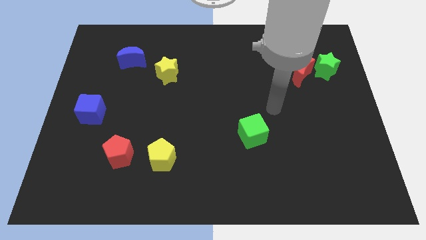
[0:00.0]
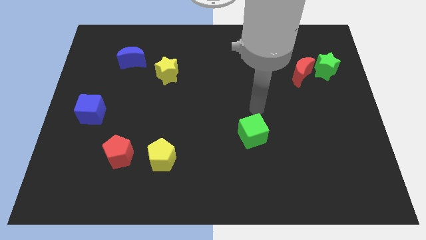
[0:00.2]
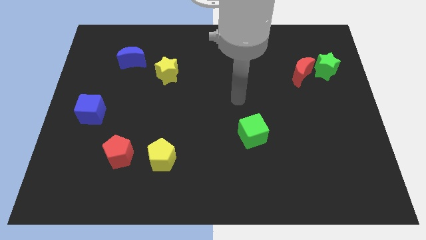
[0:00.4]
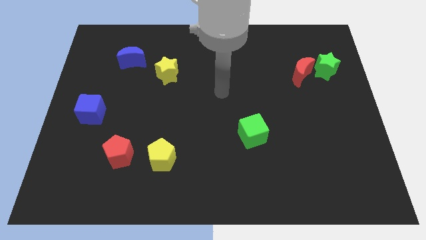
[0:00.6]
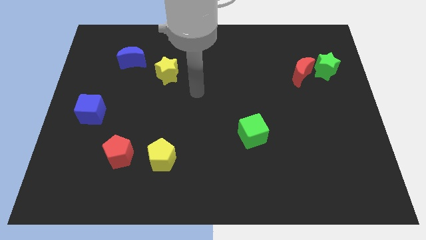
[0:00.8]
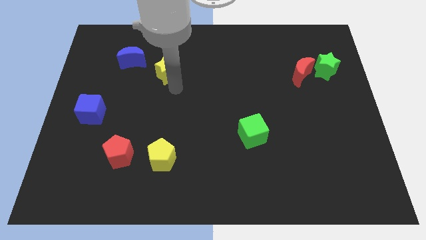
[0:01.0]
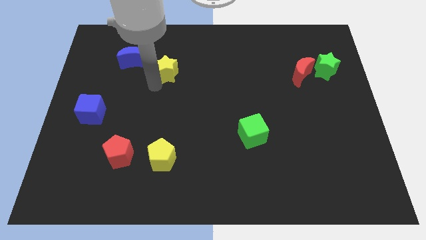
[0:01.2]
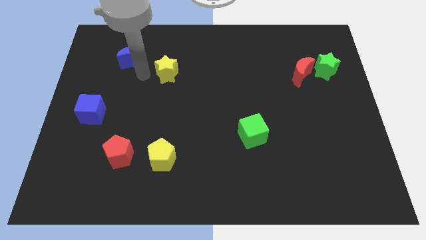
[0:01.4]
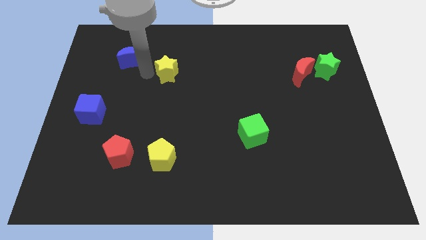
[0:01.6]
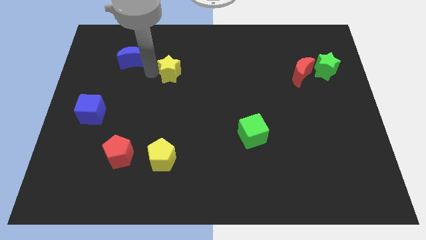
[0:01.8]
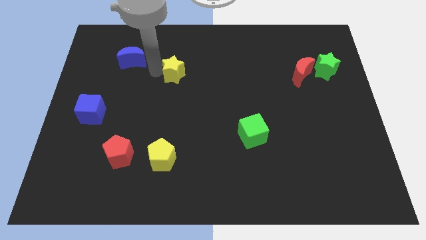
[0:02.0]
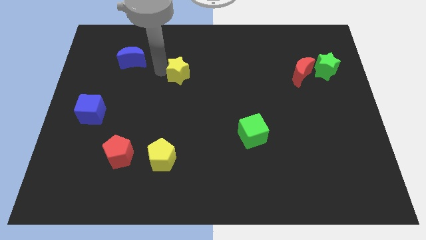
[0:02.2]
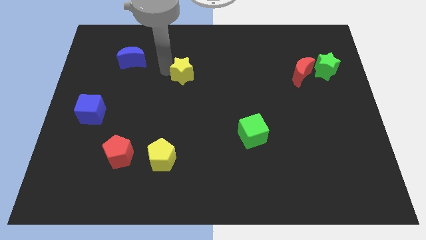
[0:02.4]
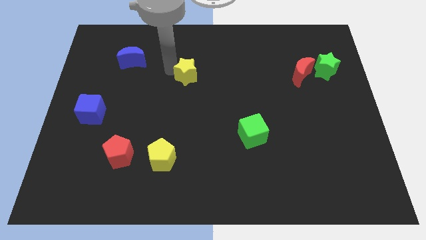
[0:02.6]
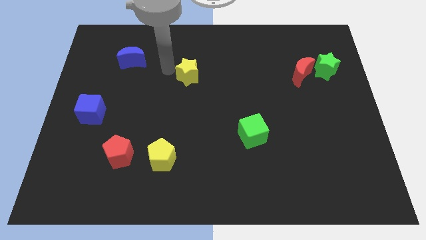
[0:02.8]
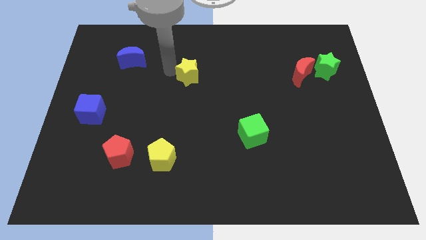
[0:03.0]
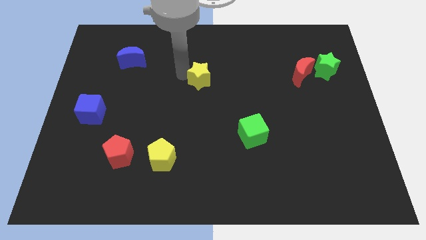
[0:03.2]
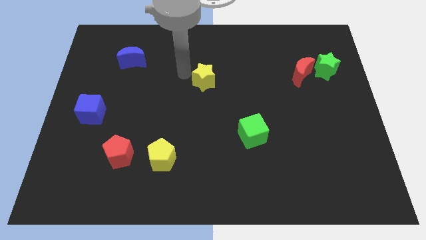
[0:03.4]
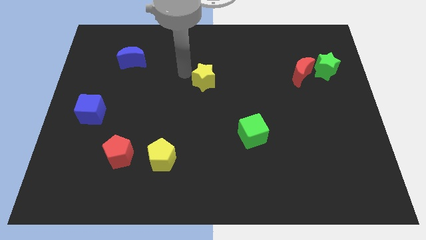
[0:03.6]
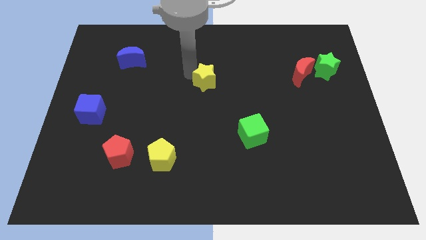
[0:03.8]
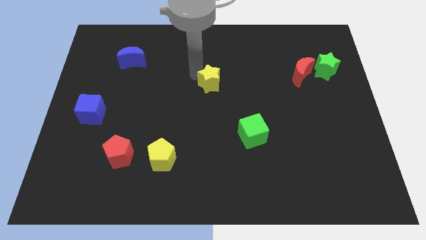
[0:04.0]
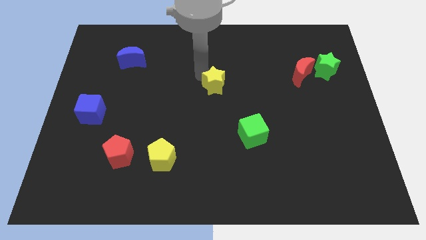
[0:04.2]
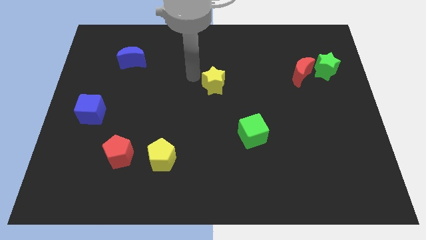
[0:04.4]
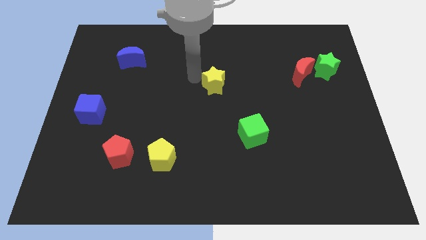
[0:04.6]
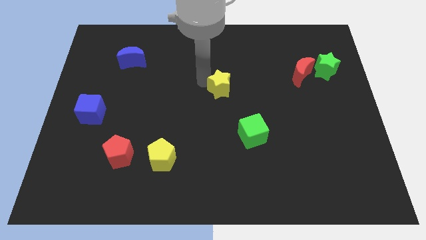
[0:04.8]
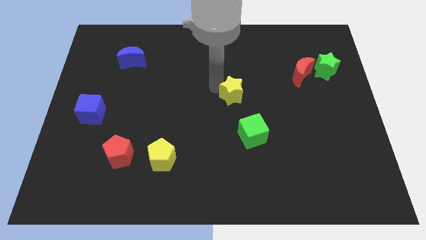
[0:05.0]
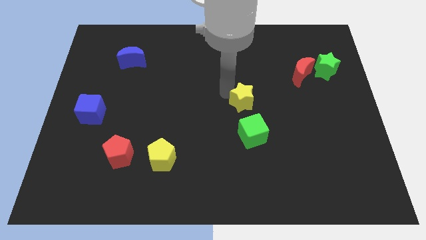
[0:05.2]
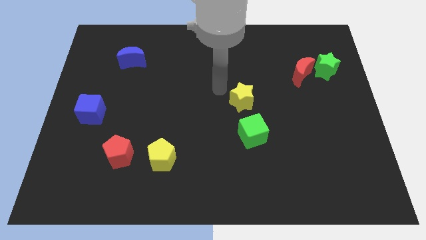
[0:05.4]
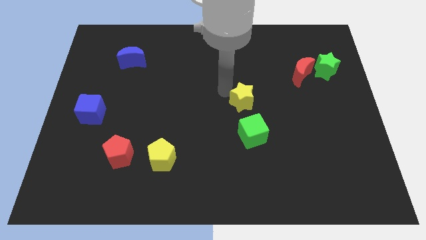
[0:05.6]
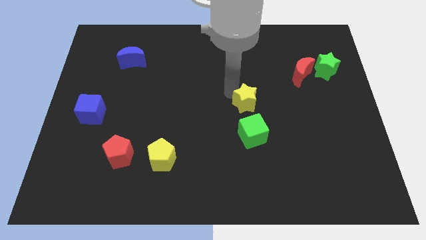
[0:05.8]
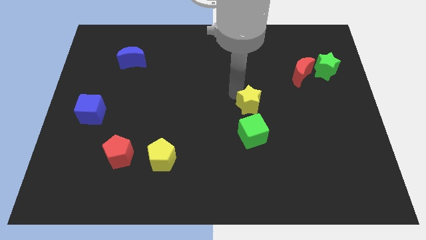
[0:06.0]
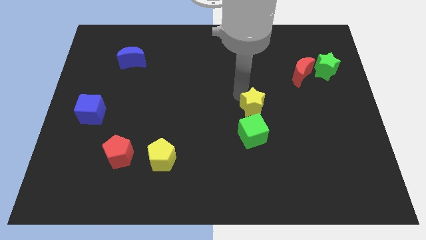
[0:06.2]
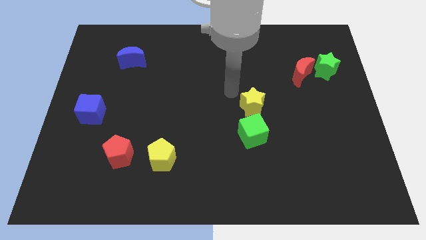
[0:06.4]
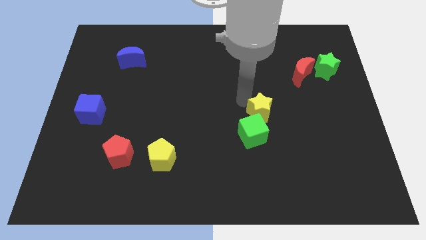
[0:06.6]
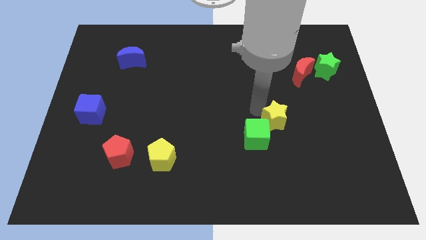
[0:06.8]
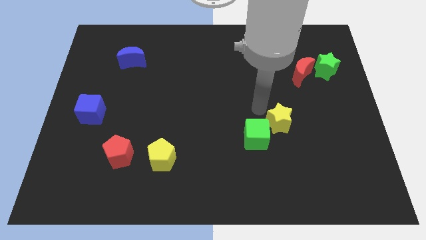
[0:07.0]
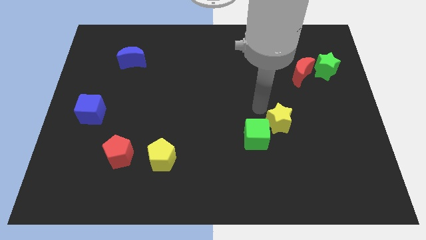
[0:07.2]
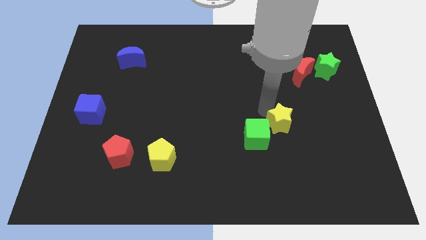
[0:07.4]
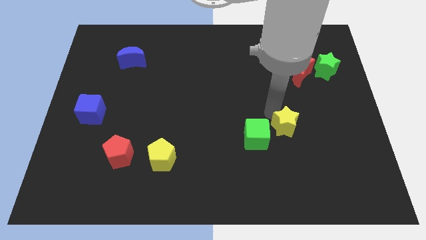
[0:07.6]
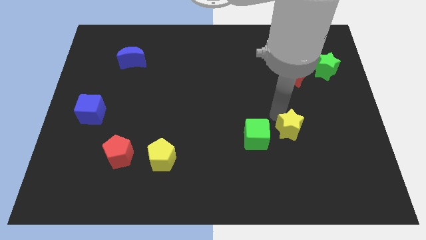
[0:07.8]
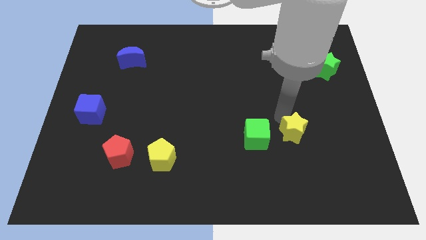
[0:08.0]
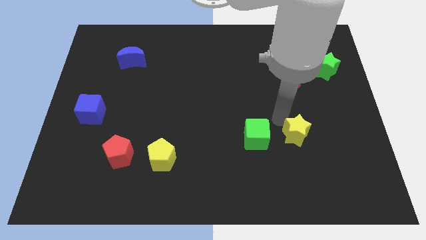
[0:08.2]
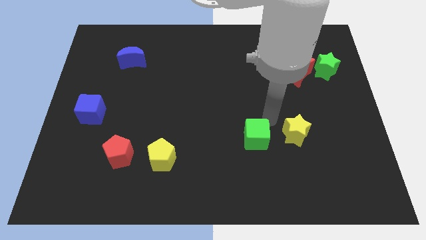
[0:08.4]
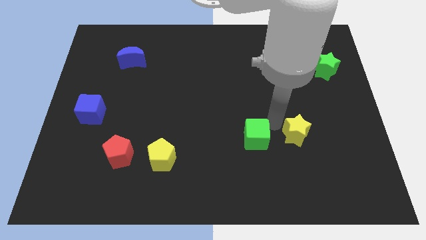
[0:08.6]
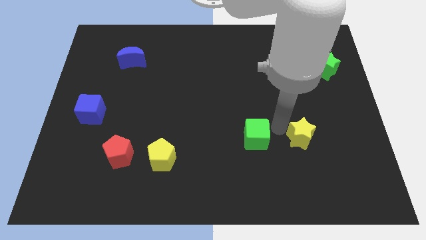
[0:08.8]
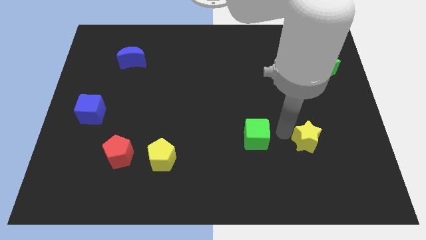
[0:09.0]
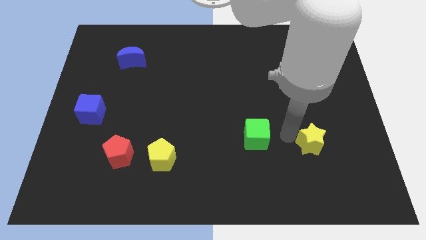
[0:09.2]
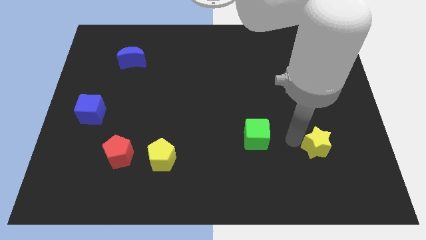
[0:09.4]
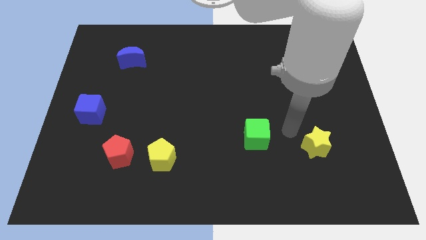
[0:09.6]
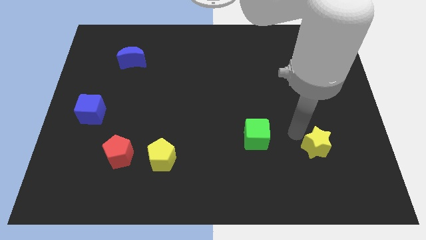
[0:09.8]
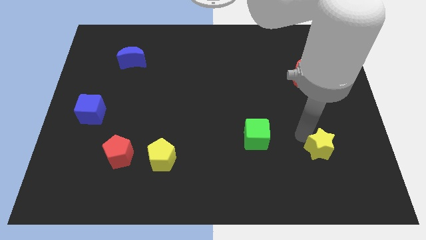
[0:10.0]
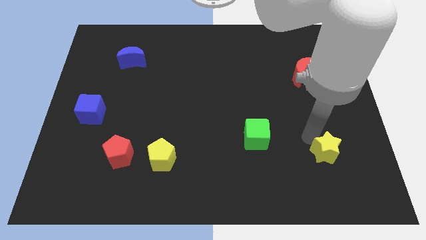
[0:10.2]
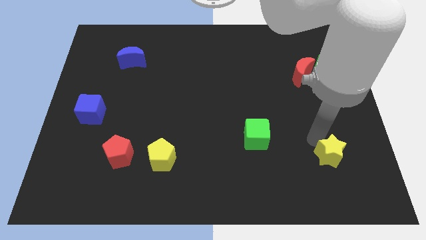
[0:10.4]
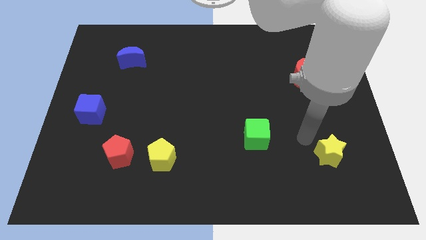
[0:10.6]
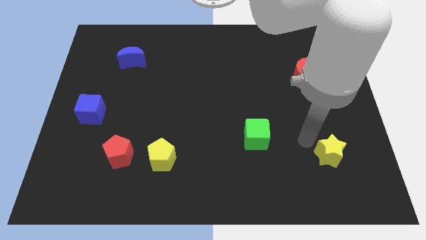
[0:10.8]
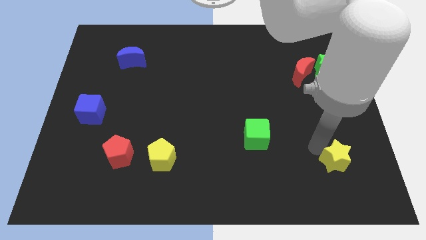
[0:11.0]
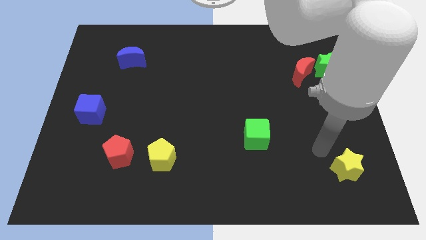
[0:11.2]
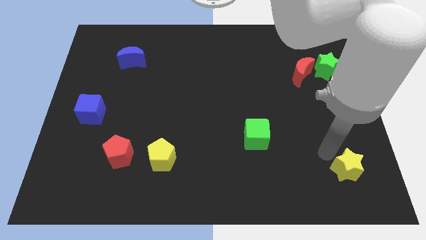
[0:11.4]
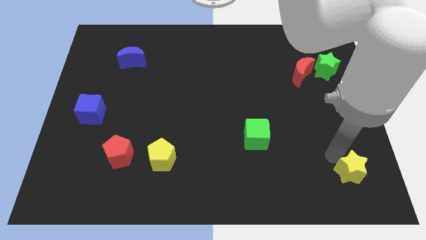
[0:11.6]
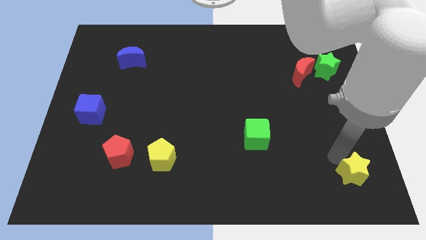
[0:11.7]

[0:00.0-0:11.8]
move the yellow star to the lower right corner
